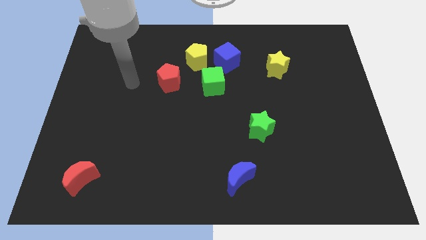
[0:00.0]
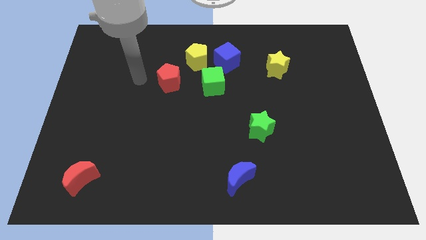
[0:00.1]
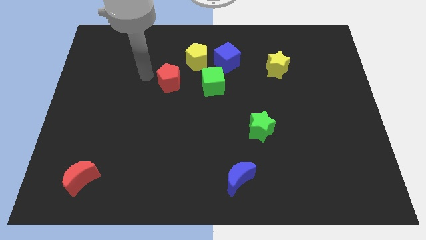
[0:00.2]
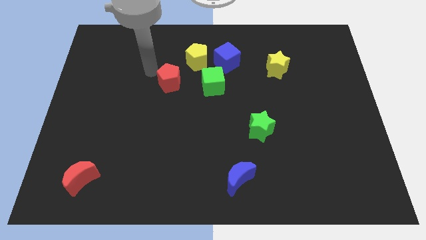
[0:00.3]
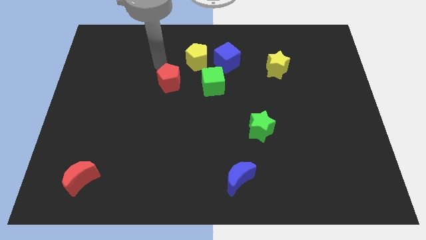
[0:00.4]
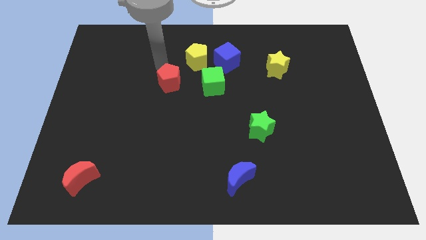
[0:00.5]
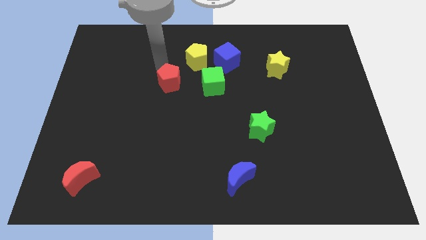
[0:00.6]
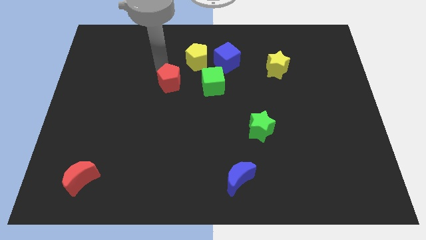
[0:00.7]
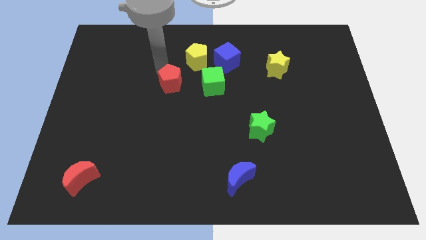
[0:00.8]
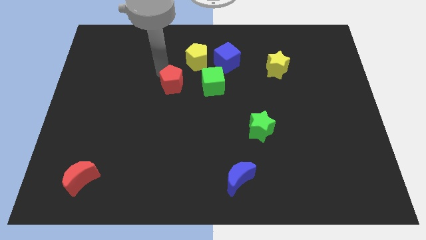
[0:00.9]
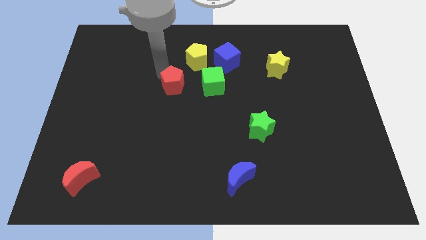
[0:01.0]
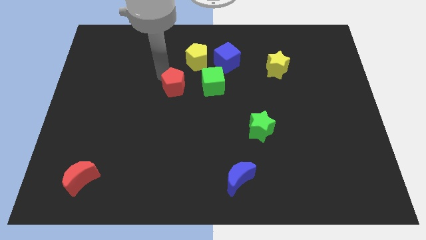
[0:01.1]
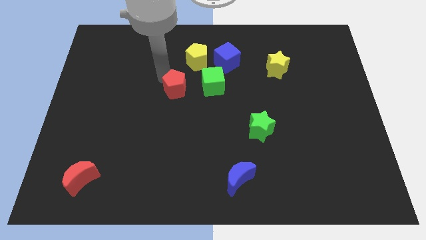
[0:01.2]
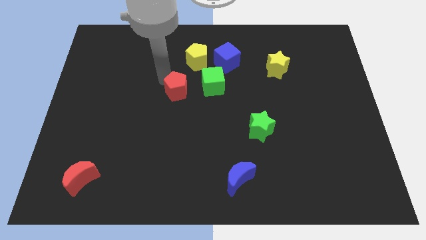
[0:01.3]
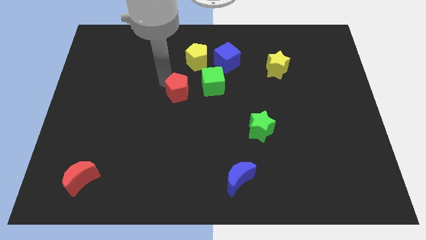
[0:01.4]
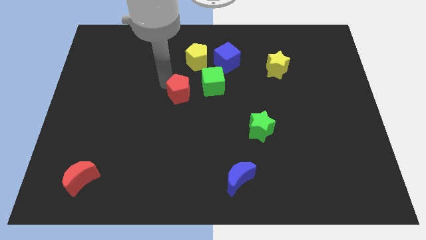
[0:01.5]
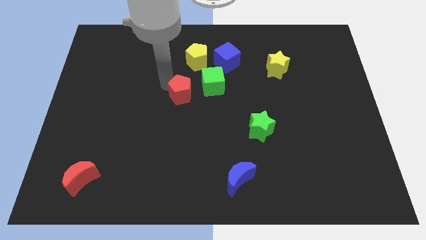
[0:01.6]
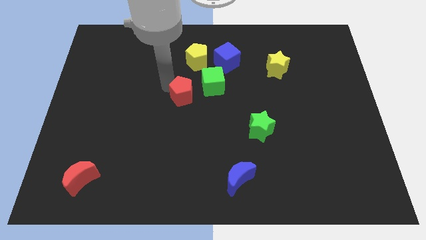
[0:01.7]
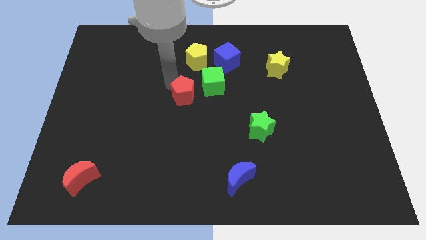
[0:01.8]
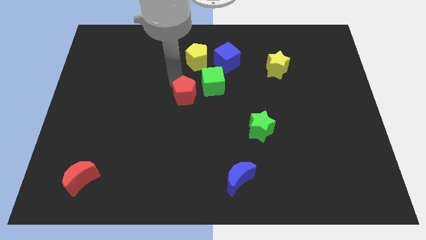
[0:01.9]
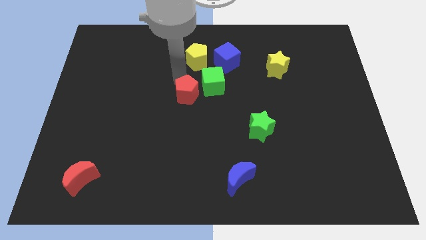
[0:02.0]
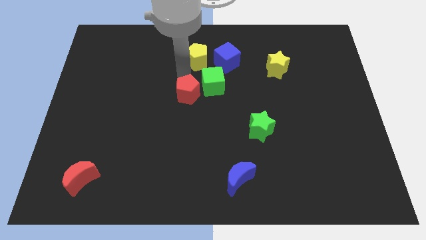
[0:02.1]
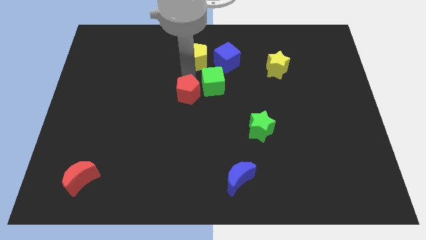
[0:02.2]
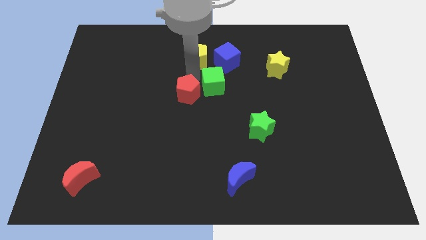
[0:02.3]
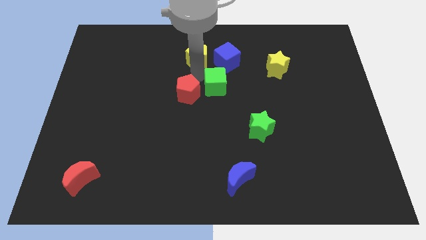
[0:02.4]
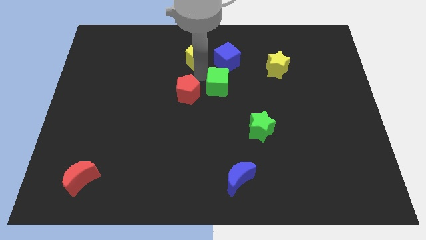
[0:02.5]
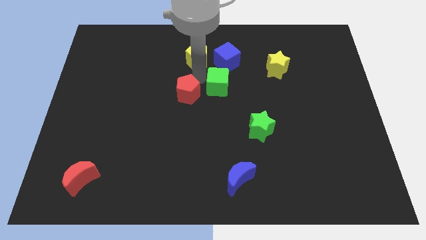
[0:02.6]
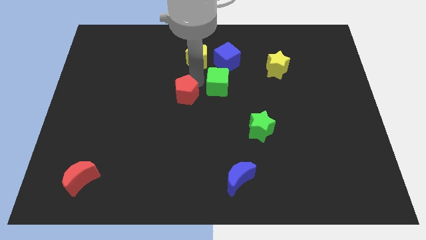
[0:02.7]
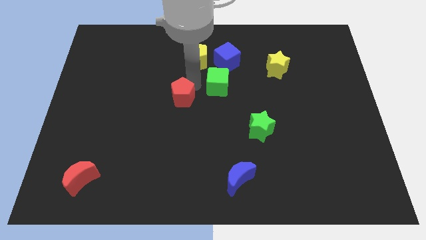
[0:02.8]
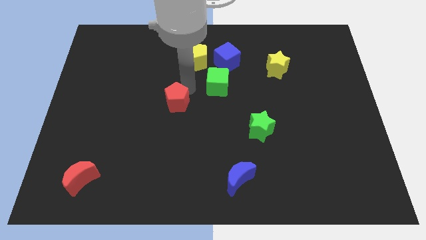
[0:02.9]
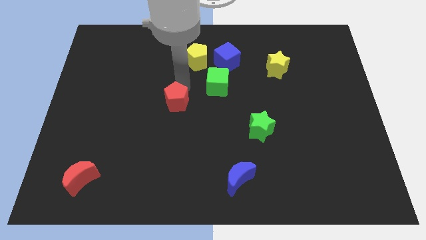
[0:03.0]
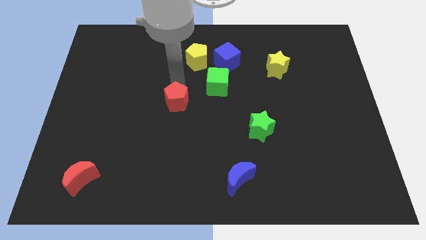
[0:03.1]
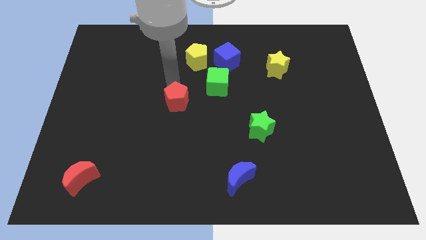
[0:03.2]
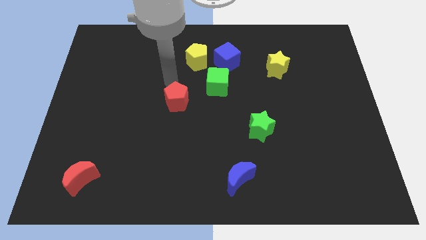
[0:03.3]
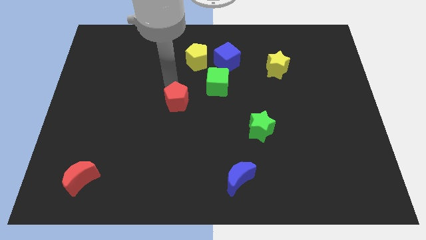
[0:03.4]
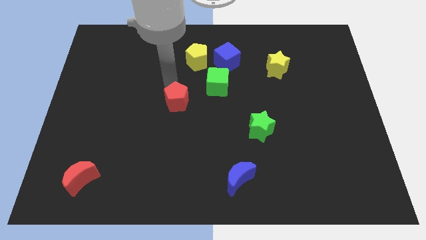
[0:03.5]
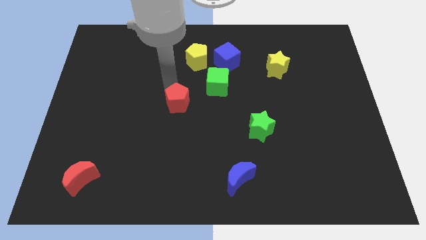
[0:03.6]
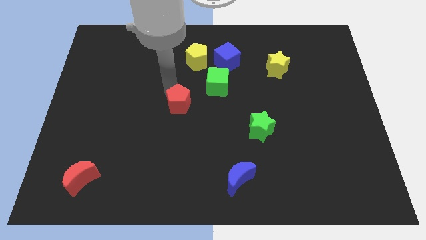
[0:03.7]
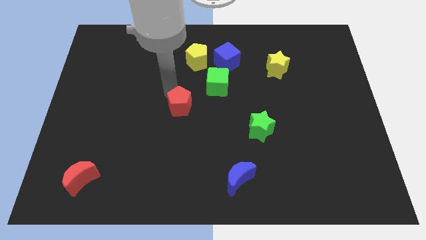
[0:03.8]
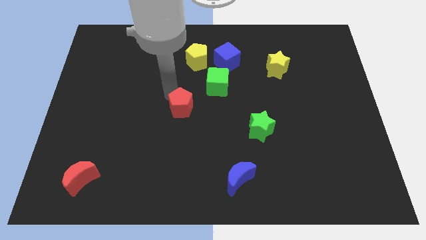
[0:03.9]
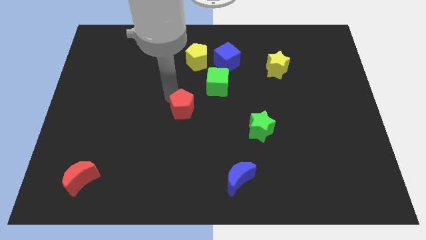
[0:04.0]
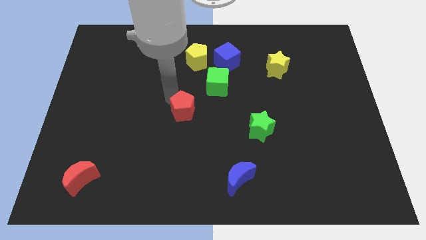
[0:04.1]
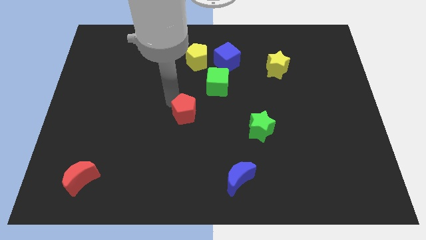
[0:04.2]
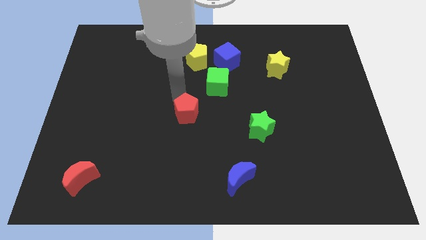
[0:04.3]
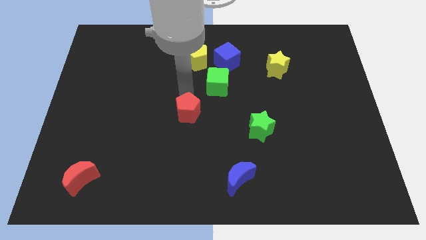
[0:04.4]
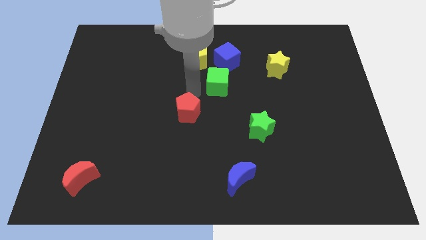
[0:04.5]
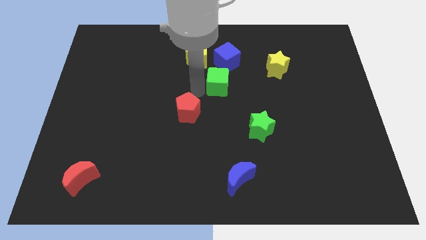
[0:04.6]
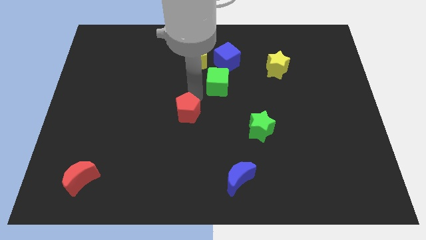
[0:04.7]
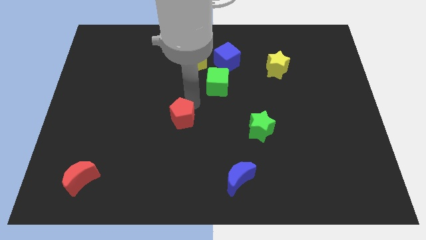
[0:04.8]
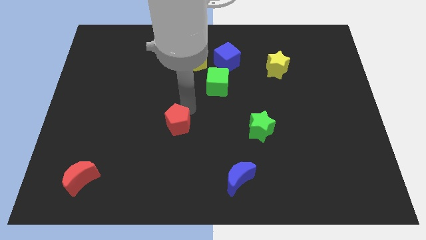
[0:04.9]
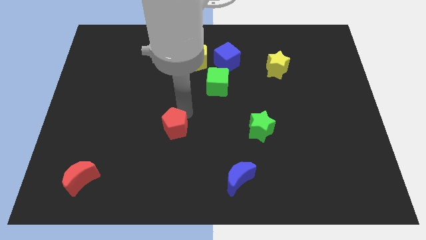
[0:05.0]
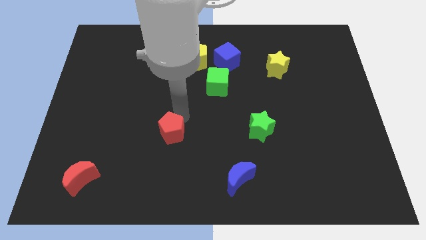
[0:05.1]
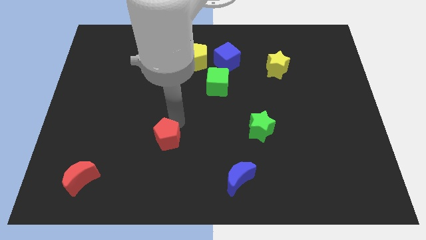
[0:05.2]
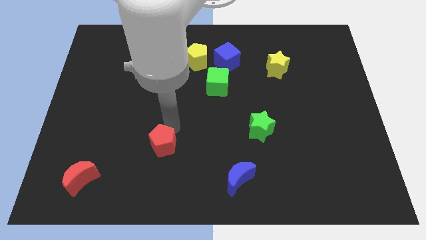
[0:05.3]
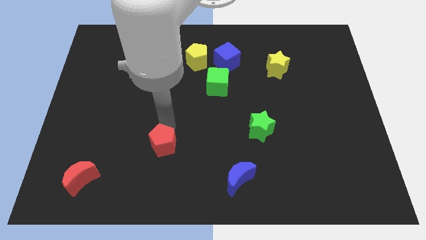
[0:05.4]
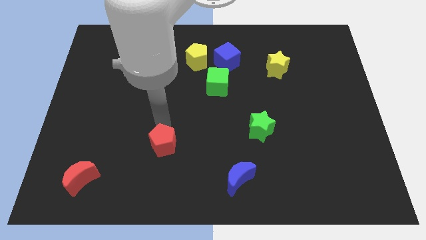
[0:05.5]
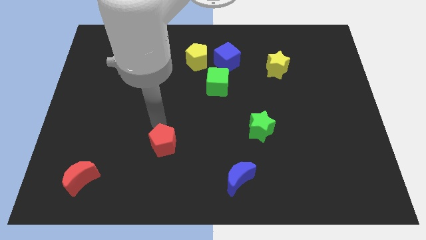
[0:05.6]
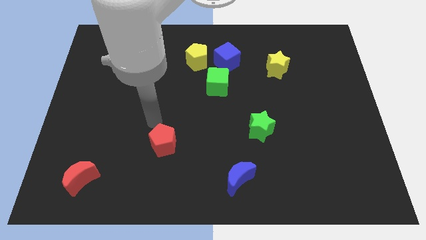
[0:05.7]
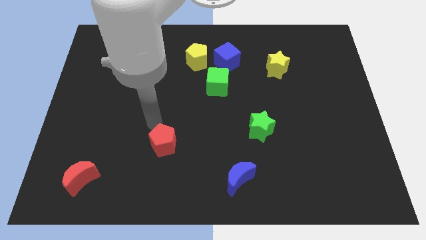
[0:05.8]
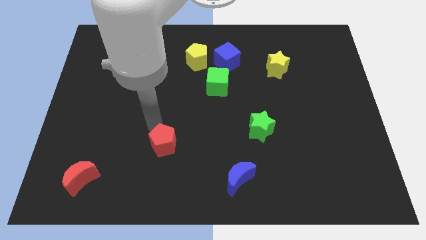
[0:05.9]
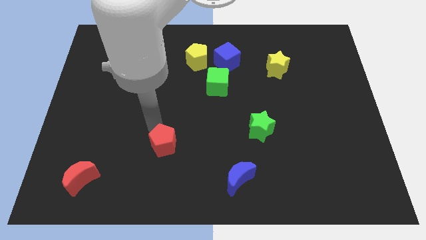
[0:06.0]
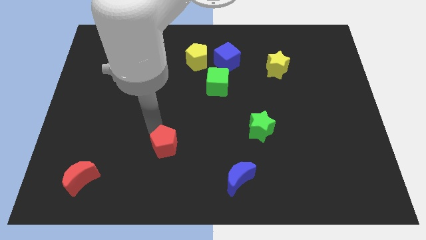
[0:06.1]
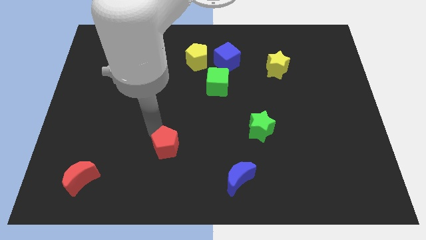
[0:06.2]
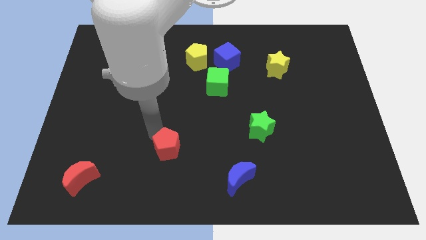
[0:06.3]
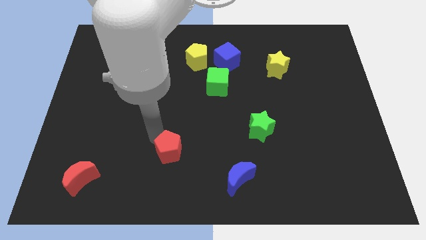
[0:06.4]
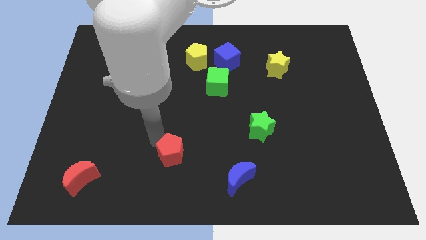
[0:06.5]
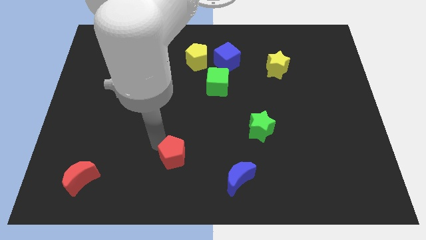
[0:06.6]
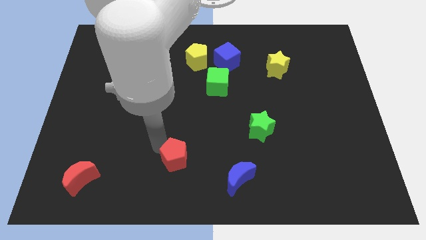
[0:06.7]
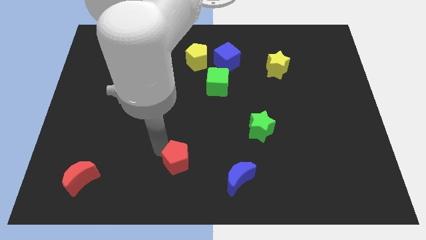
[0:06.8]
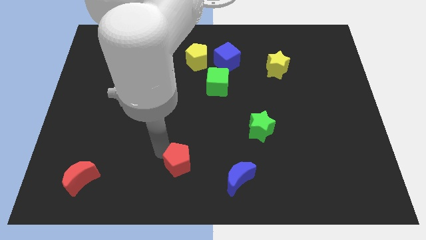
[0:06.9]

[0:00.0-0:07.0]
move the red pentagon to the bottom
